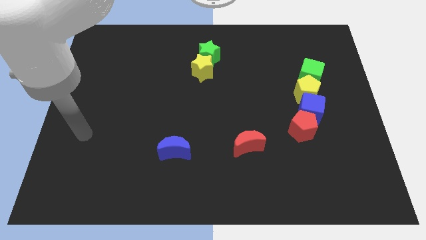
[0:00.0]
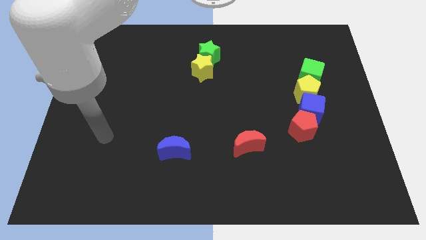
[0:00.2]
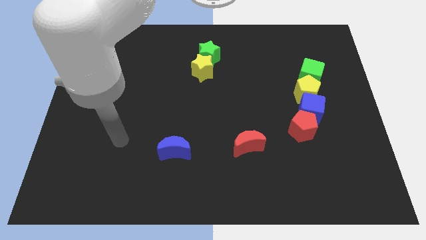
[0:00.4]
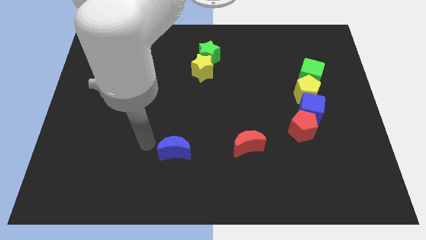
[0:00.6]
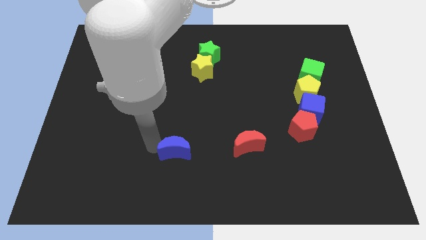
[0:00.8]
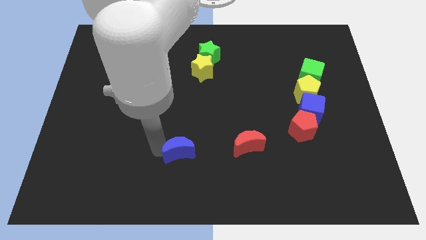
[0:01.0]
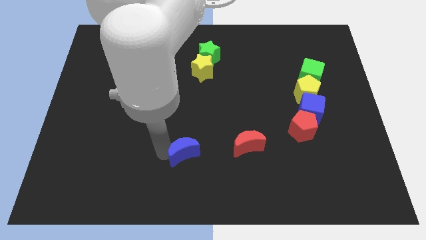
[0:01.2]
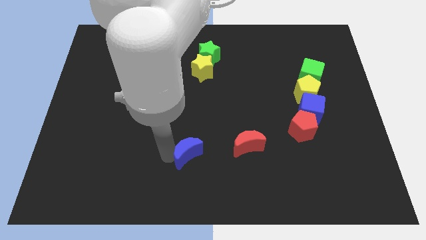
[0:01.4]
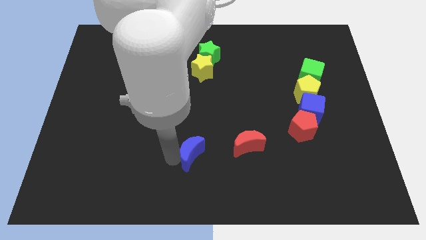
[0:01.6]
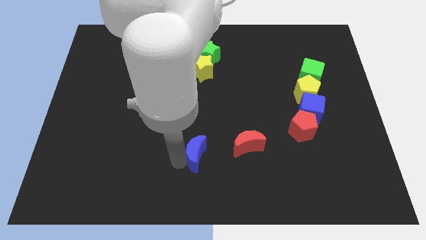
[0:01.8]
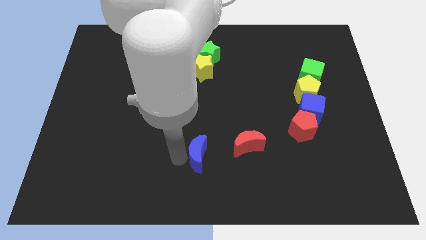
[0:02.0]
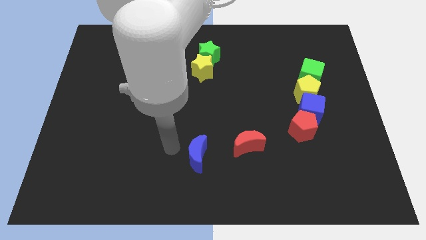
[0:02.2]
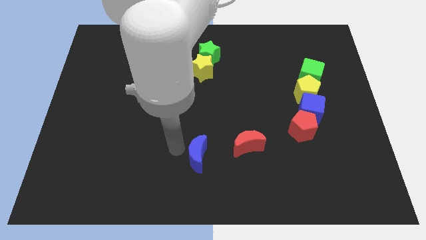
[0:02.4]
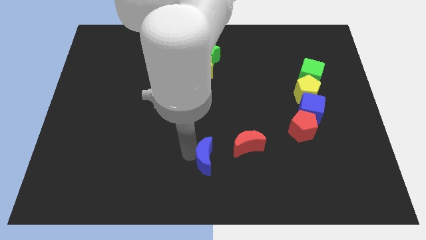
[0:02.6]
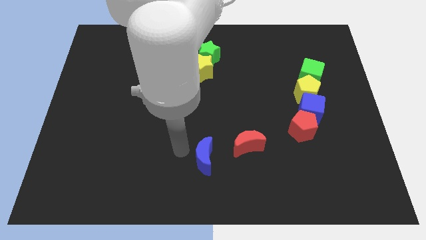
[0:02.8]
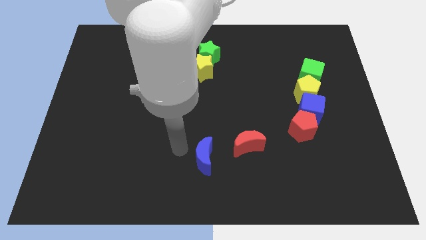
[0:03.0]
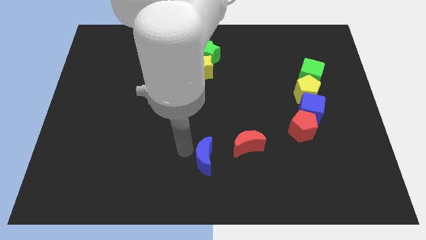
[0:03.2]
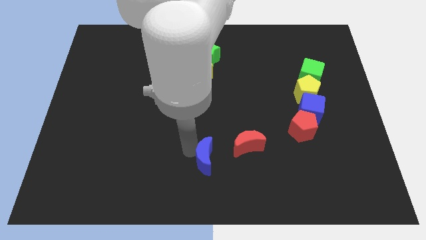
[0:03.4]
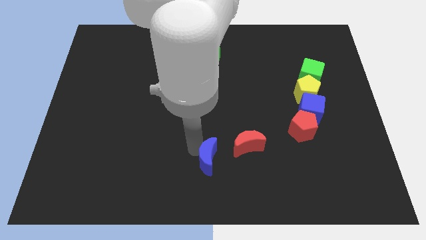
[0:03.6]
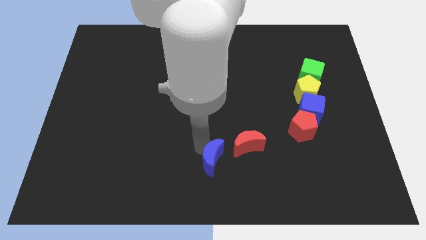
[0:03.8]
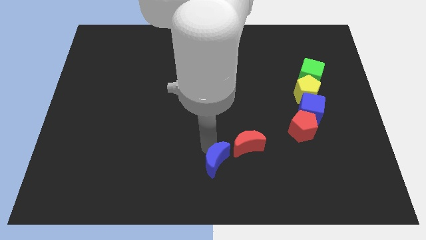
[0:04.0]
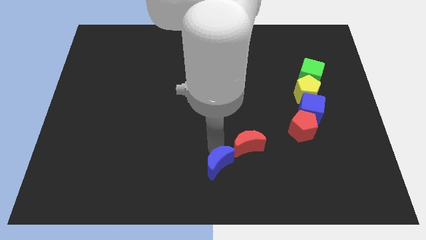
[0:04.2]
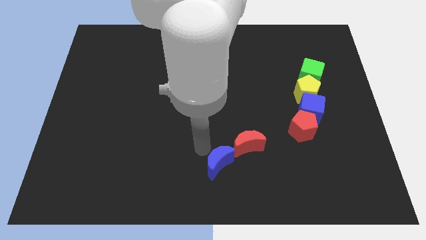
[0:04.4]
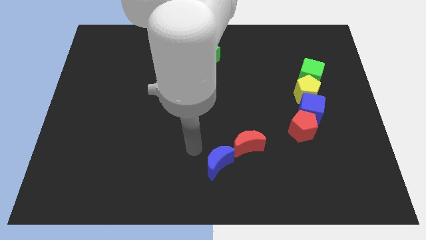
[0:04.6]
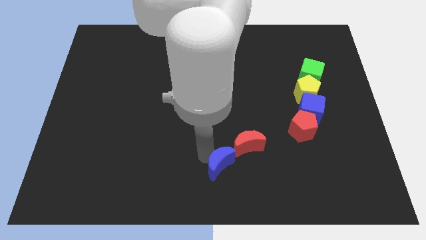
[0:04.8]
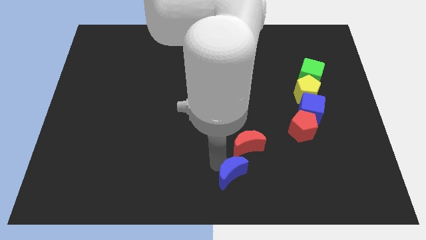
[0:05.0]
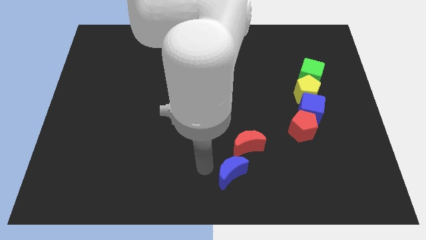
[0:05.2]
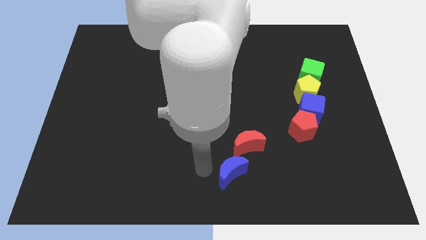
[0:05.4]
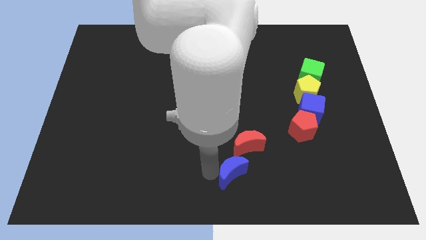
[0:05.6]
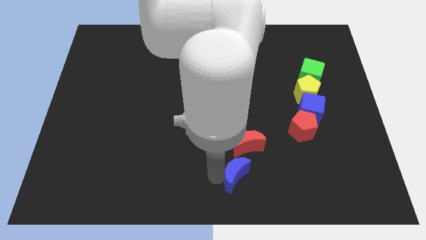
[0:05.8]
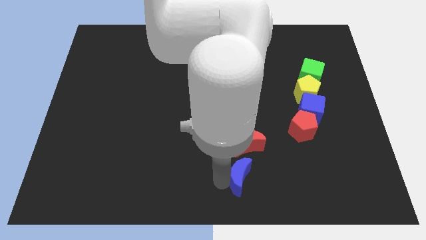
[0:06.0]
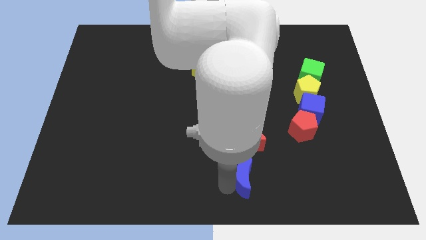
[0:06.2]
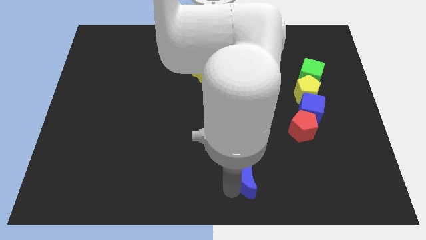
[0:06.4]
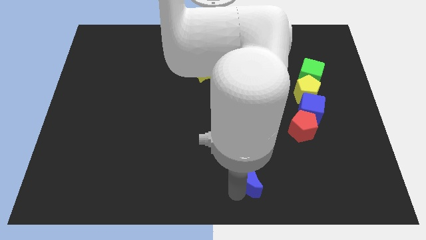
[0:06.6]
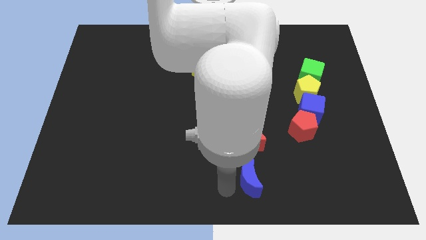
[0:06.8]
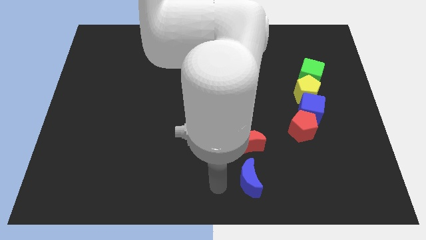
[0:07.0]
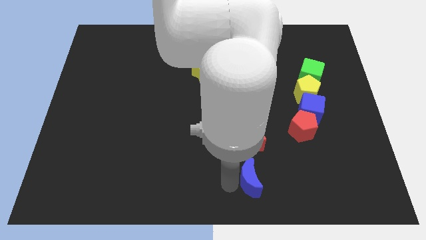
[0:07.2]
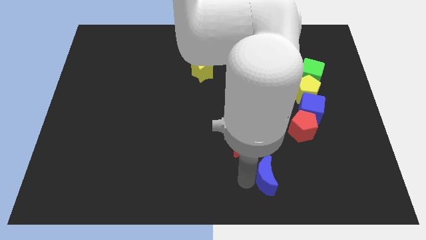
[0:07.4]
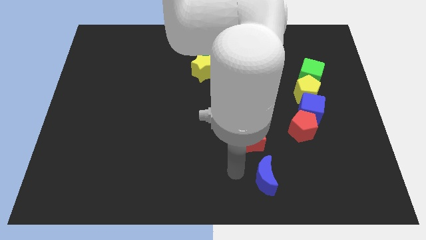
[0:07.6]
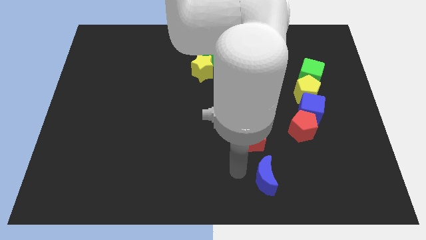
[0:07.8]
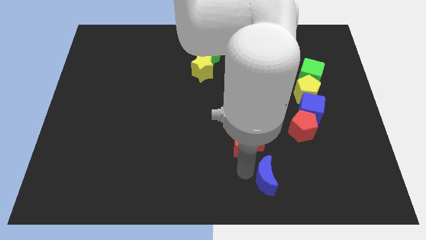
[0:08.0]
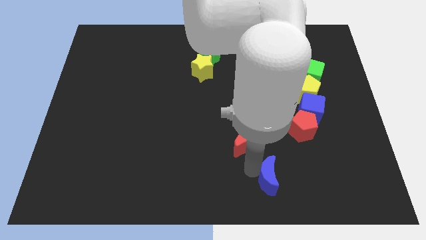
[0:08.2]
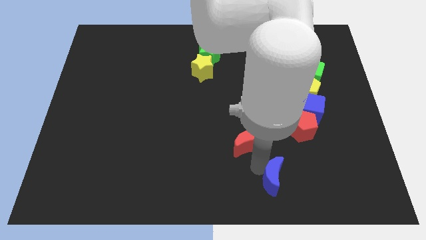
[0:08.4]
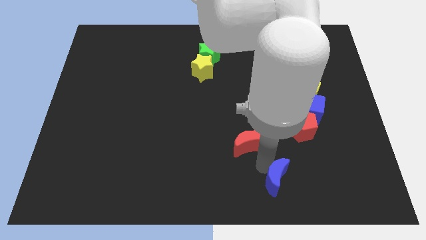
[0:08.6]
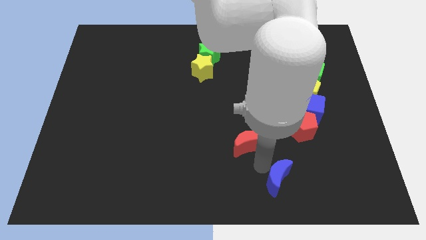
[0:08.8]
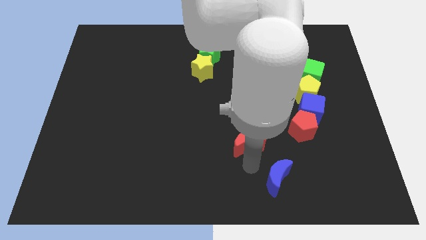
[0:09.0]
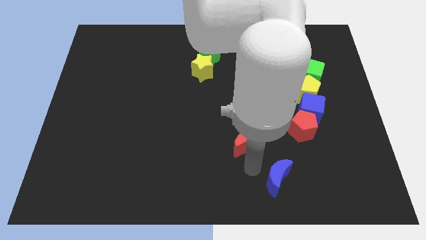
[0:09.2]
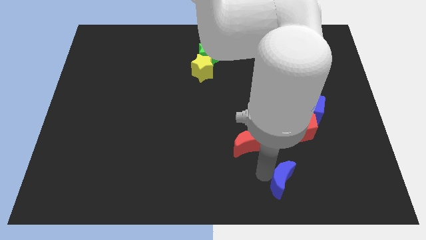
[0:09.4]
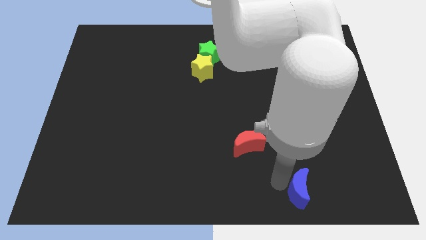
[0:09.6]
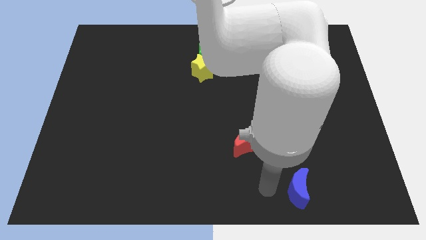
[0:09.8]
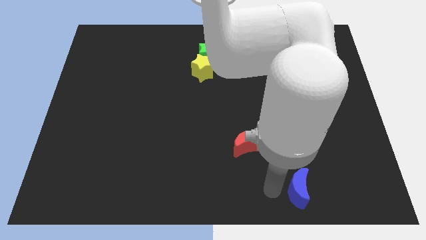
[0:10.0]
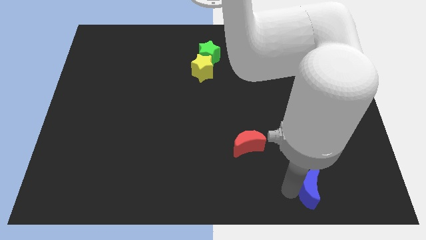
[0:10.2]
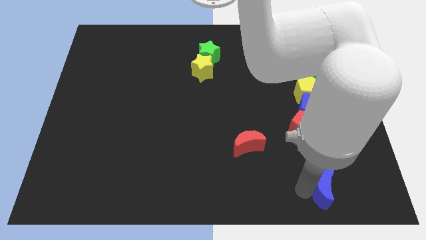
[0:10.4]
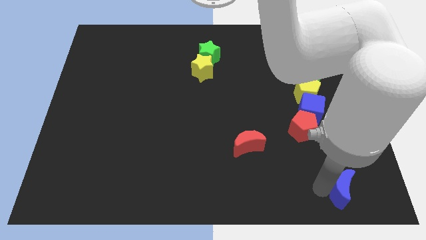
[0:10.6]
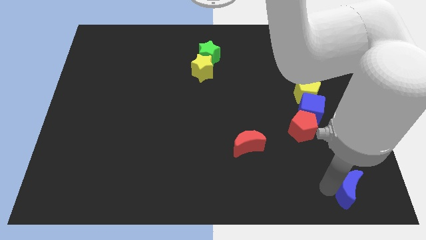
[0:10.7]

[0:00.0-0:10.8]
slide the blue moon to the bottom right of the board

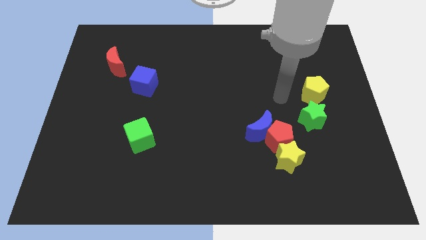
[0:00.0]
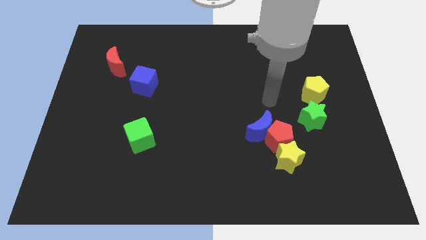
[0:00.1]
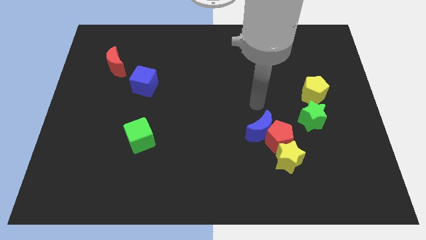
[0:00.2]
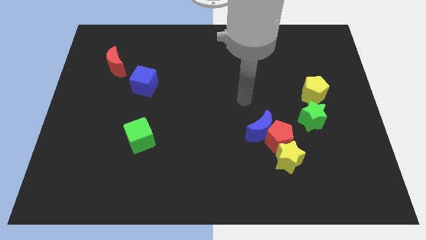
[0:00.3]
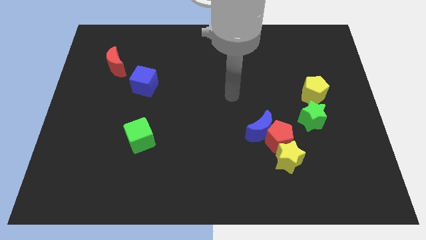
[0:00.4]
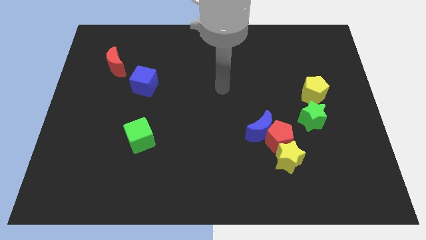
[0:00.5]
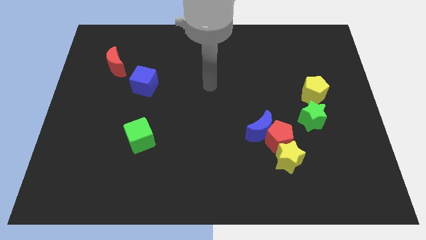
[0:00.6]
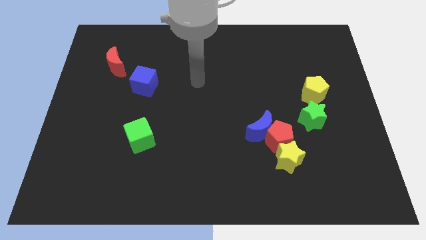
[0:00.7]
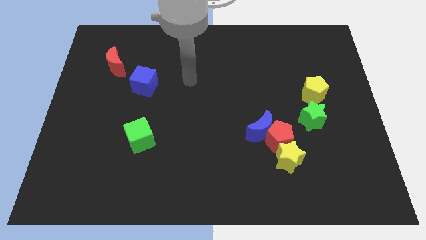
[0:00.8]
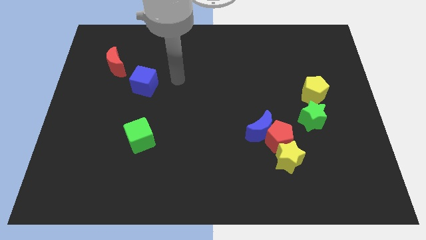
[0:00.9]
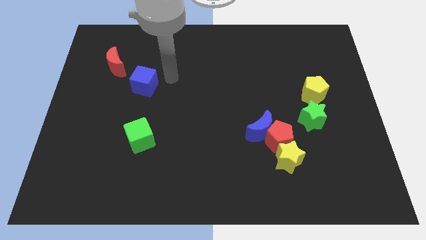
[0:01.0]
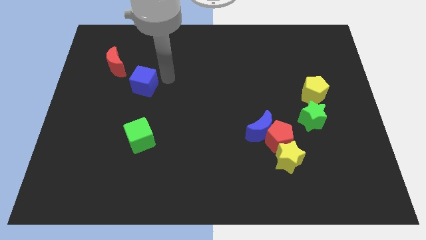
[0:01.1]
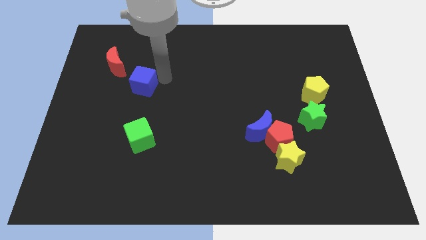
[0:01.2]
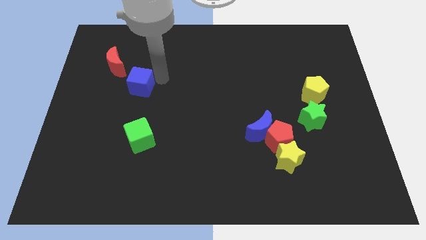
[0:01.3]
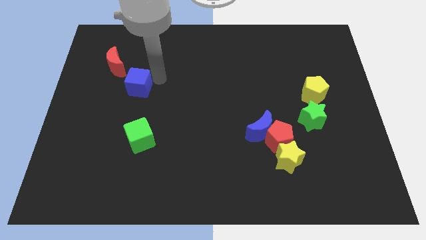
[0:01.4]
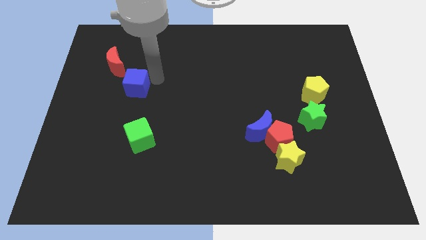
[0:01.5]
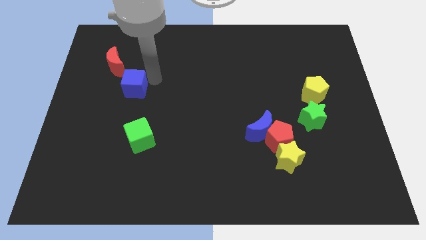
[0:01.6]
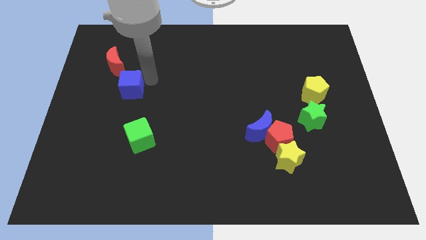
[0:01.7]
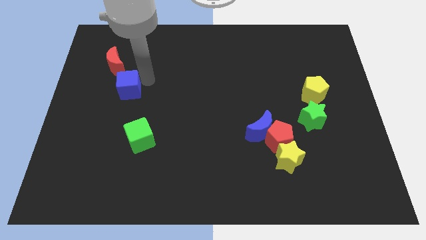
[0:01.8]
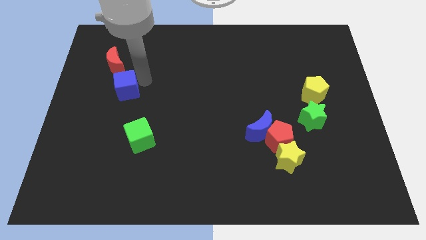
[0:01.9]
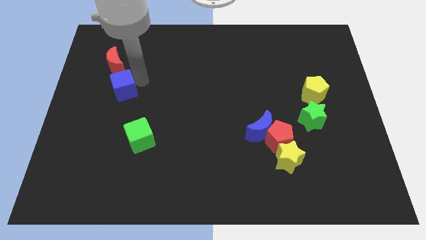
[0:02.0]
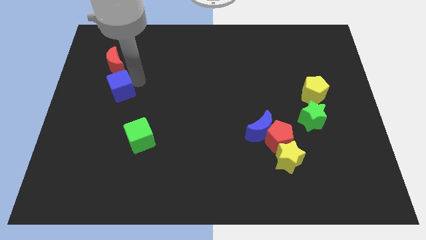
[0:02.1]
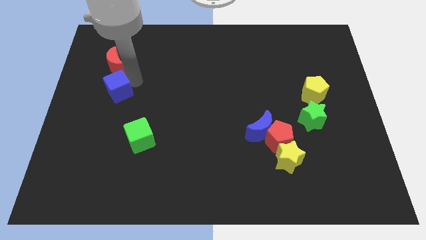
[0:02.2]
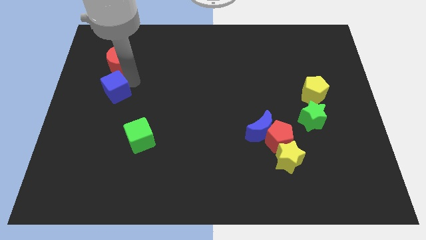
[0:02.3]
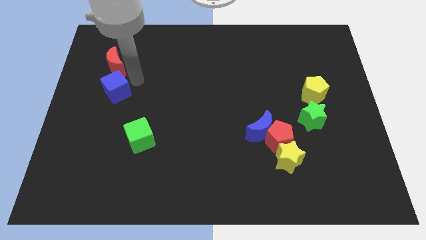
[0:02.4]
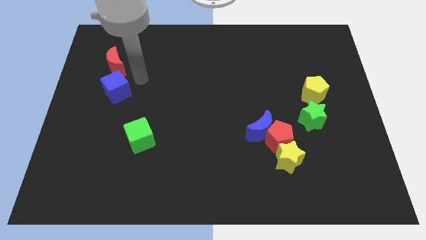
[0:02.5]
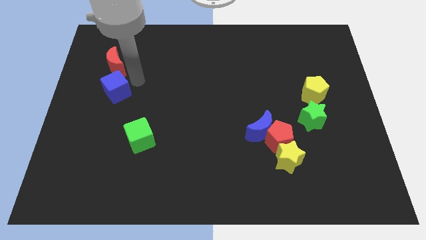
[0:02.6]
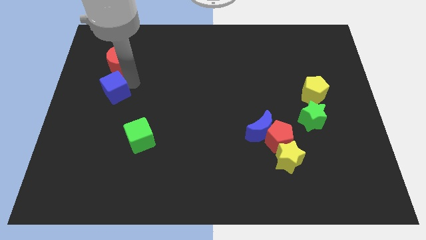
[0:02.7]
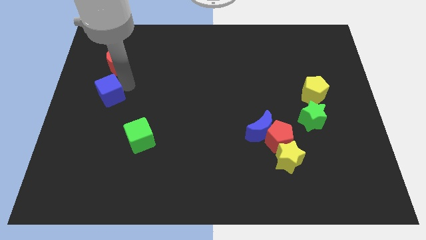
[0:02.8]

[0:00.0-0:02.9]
put the blue cube to the center left
